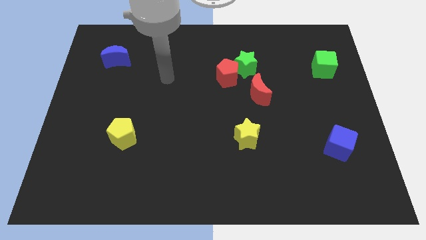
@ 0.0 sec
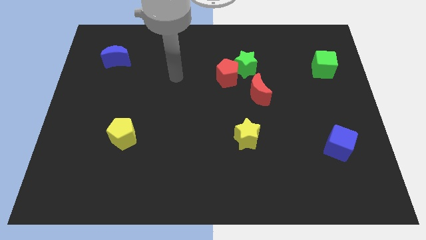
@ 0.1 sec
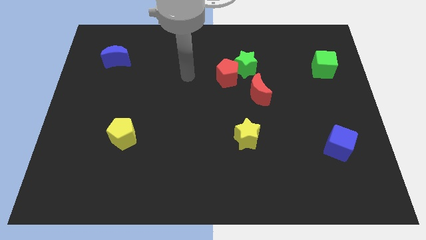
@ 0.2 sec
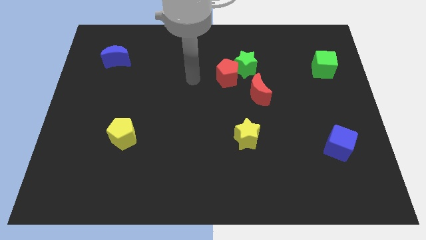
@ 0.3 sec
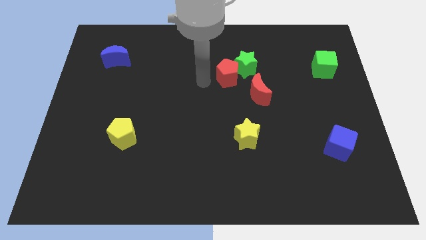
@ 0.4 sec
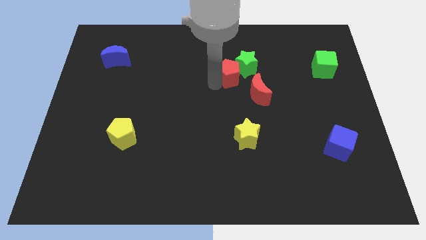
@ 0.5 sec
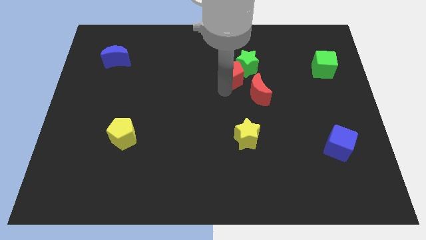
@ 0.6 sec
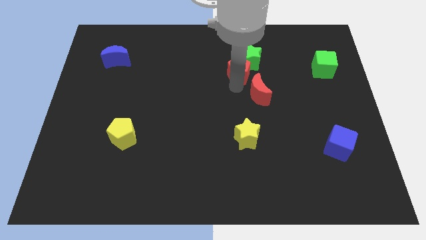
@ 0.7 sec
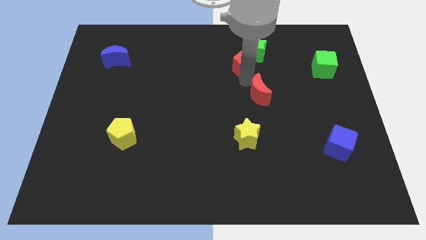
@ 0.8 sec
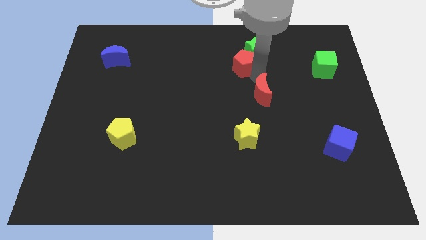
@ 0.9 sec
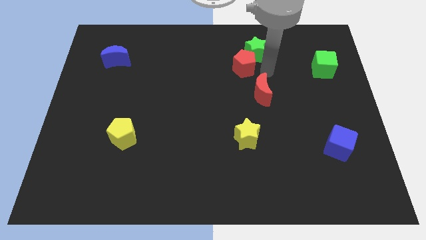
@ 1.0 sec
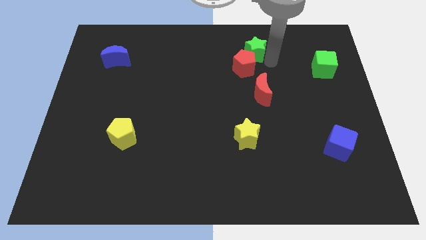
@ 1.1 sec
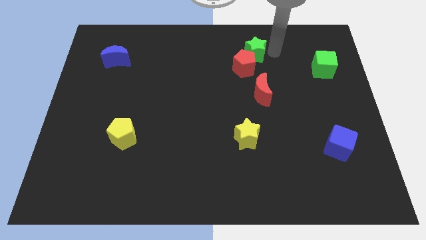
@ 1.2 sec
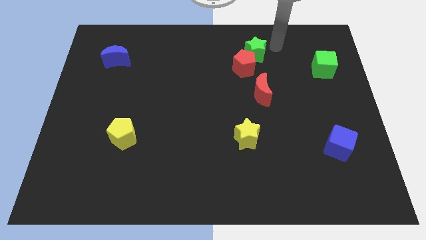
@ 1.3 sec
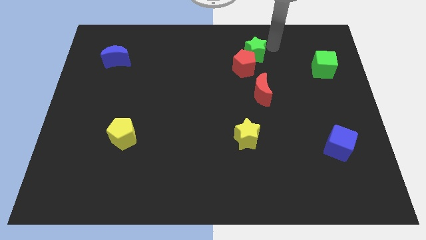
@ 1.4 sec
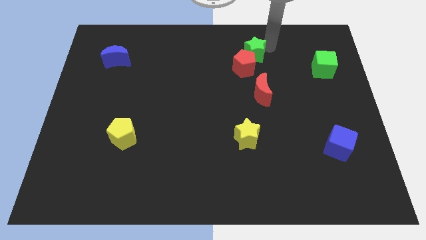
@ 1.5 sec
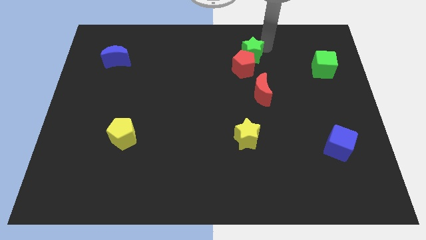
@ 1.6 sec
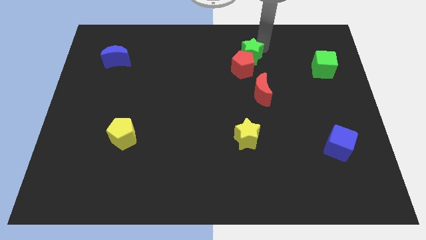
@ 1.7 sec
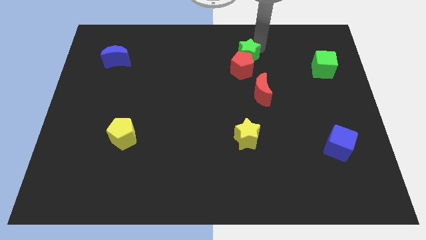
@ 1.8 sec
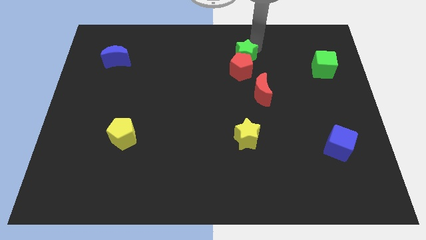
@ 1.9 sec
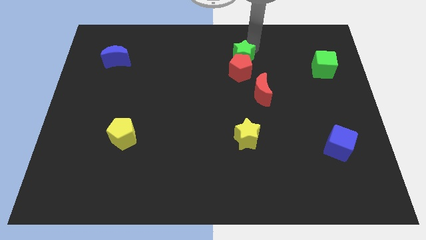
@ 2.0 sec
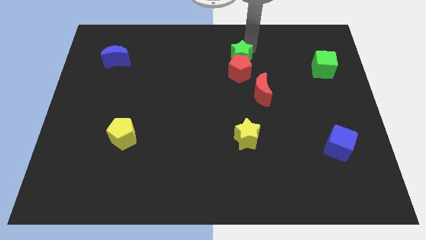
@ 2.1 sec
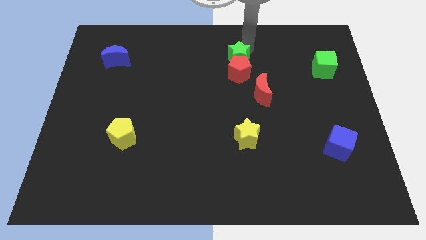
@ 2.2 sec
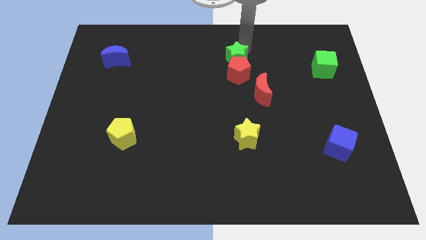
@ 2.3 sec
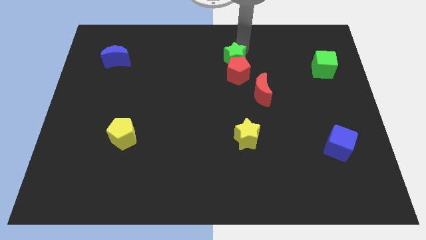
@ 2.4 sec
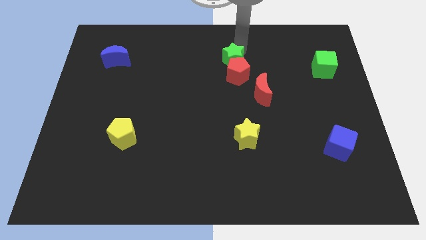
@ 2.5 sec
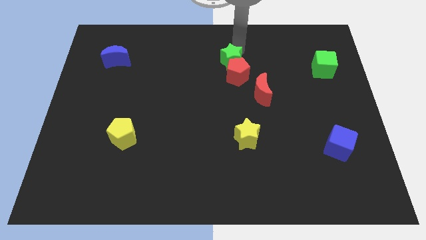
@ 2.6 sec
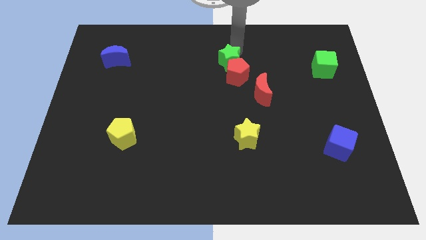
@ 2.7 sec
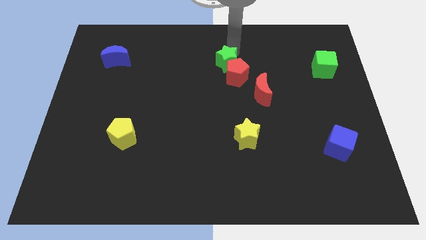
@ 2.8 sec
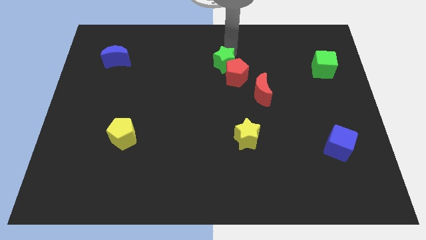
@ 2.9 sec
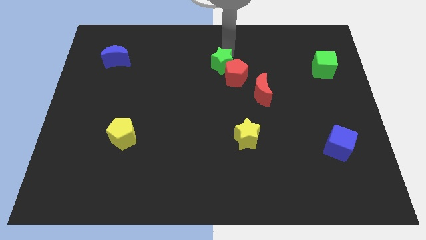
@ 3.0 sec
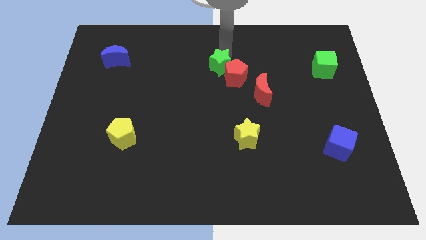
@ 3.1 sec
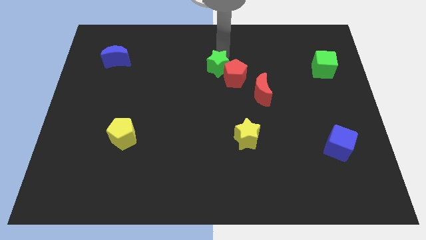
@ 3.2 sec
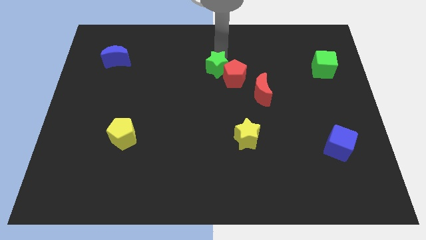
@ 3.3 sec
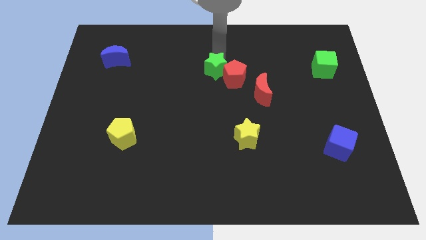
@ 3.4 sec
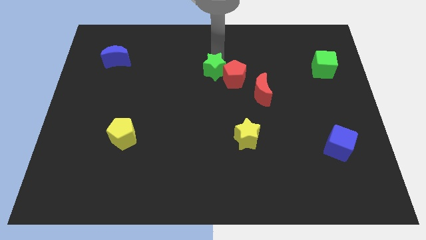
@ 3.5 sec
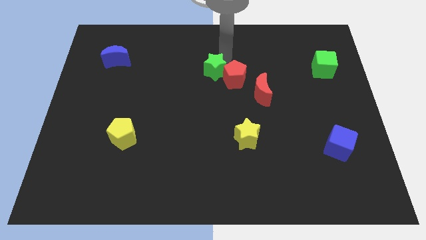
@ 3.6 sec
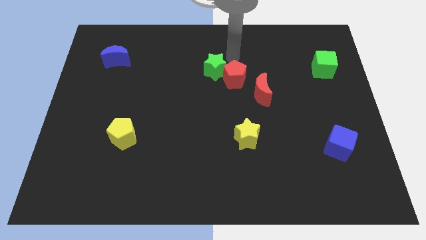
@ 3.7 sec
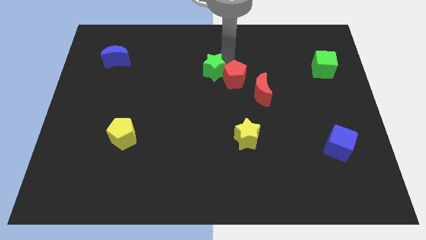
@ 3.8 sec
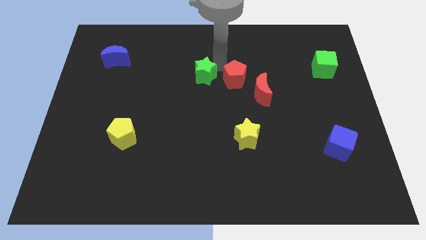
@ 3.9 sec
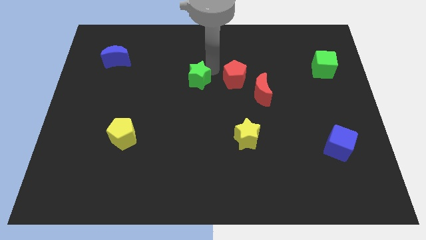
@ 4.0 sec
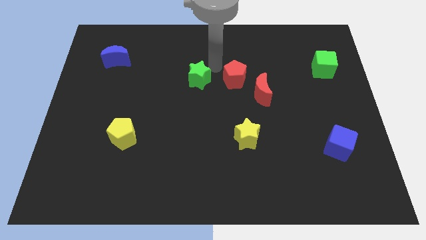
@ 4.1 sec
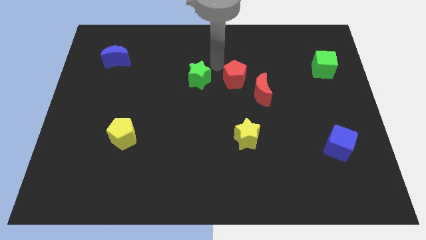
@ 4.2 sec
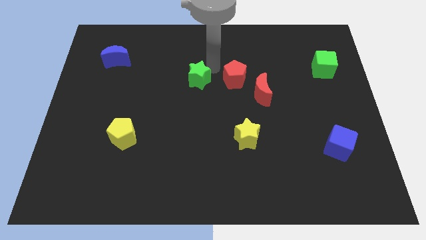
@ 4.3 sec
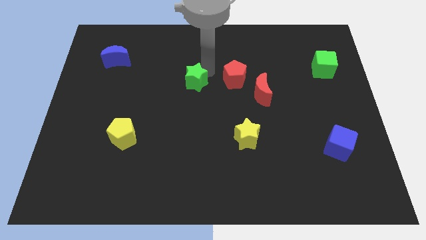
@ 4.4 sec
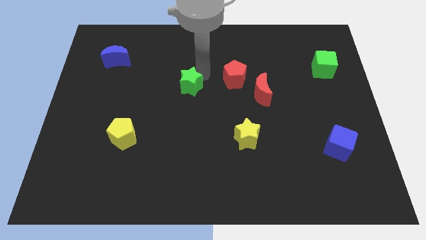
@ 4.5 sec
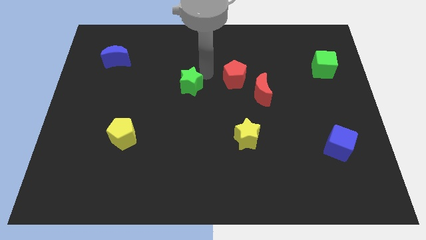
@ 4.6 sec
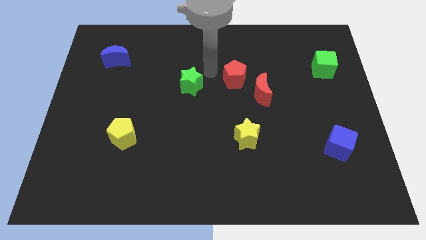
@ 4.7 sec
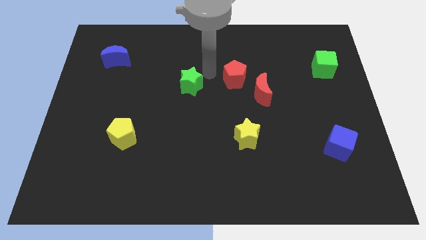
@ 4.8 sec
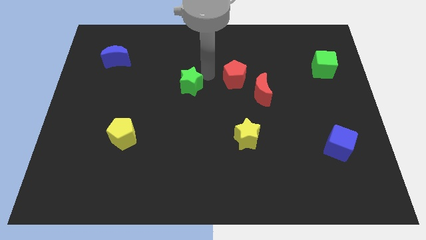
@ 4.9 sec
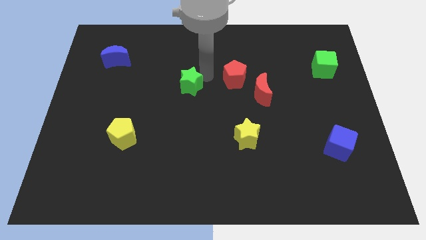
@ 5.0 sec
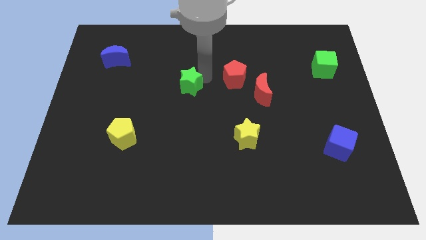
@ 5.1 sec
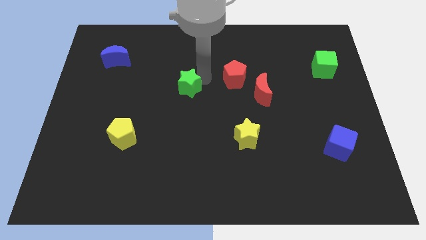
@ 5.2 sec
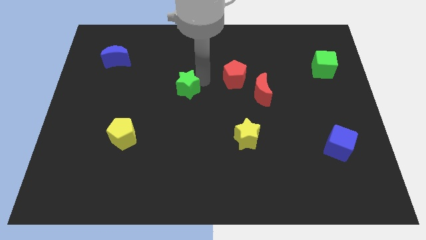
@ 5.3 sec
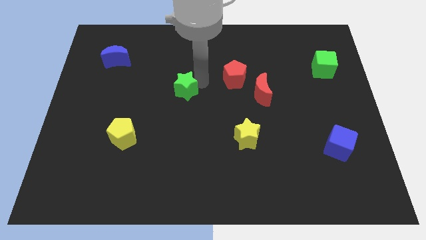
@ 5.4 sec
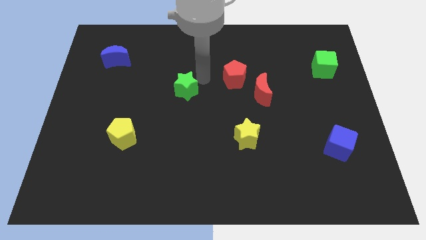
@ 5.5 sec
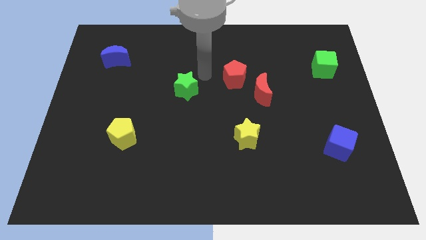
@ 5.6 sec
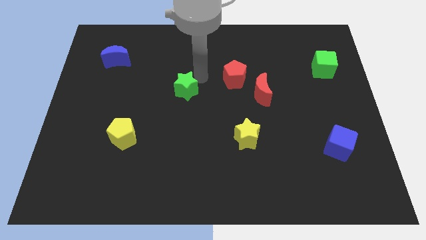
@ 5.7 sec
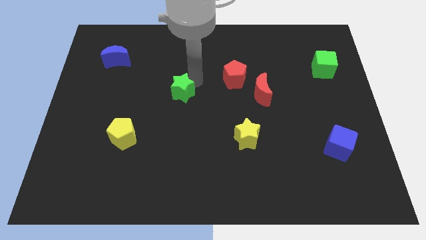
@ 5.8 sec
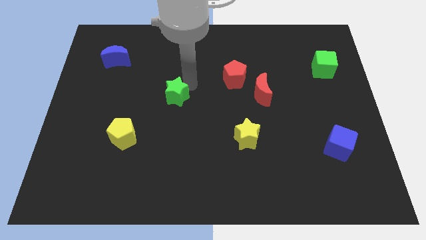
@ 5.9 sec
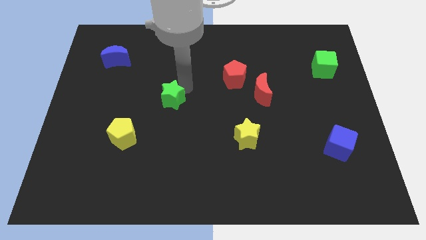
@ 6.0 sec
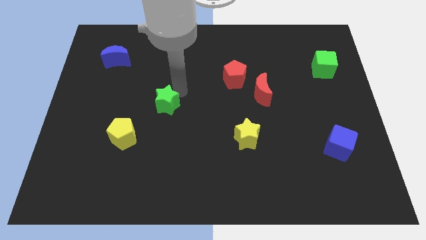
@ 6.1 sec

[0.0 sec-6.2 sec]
put the green star to the top right side of the yellow pentagon

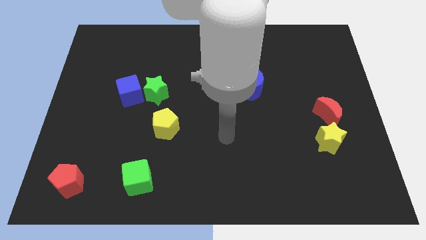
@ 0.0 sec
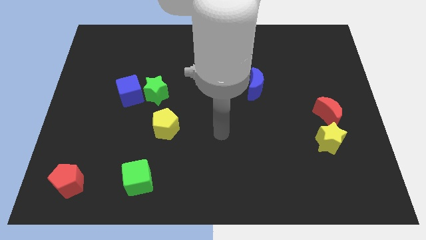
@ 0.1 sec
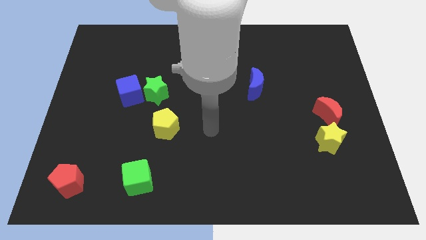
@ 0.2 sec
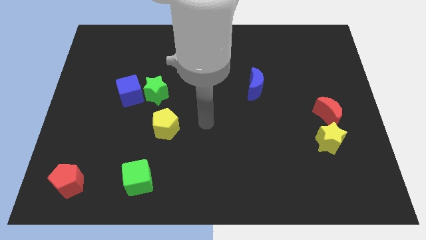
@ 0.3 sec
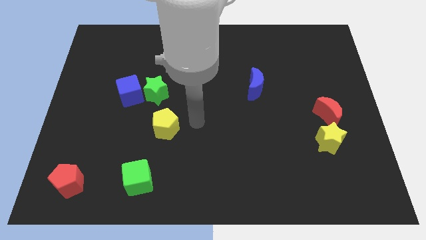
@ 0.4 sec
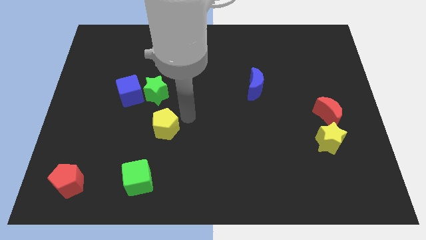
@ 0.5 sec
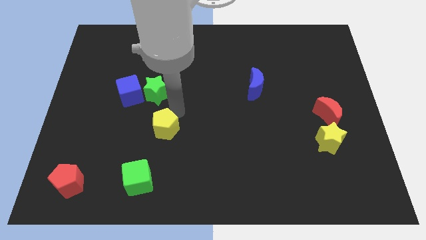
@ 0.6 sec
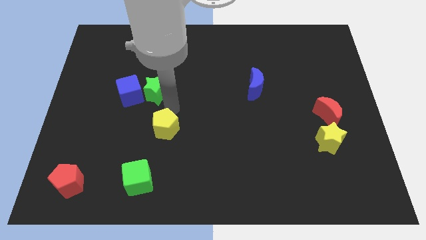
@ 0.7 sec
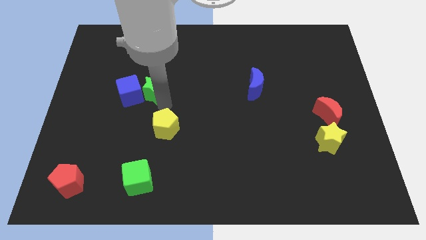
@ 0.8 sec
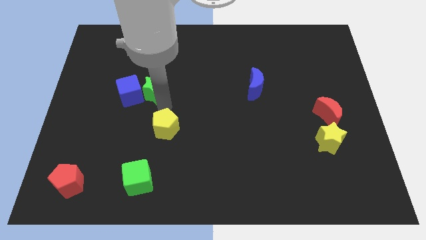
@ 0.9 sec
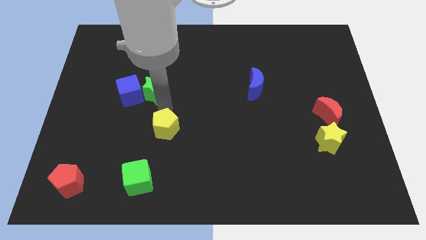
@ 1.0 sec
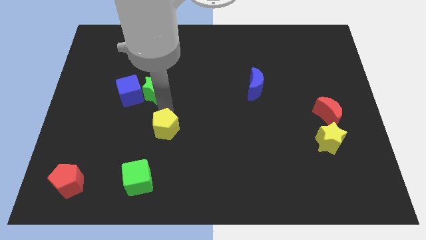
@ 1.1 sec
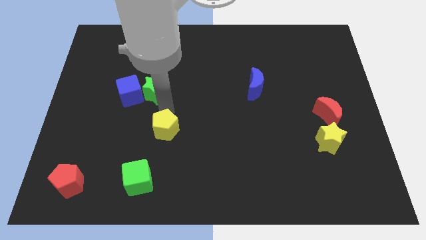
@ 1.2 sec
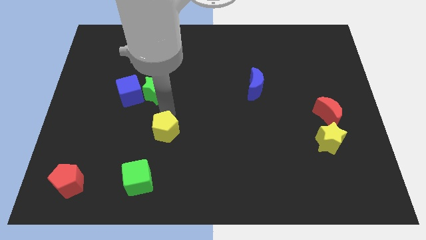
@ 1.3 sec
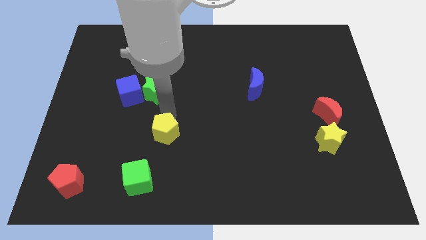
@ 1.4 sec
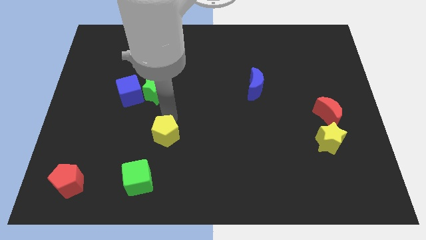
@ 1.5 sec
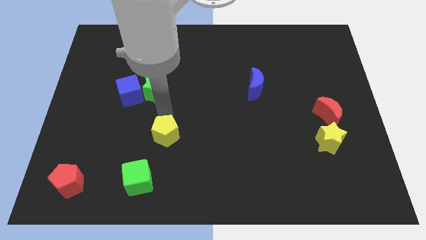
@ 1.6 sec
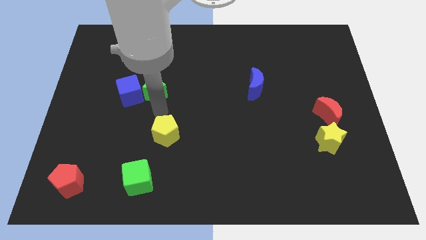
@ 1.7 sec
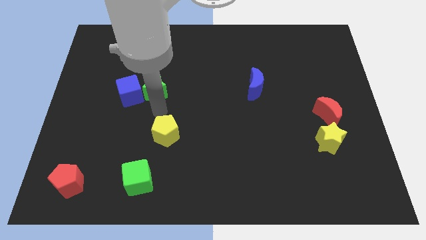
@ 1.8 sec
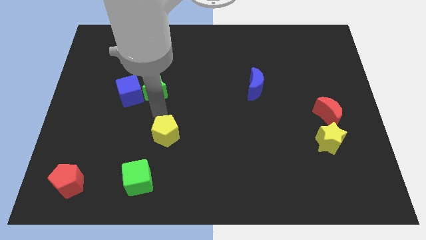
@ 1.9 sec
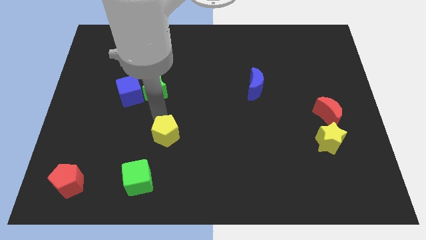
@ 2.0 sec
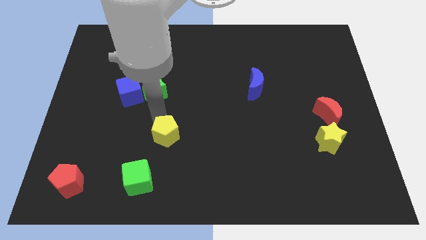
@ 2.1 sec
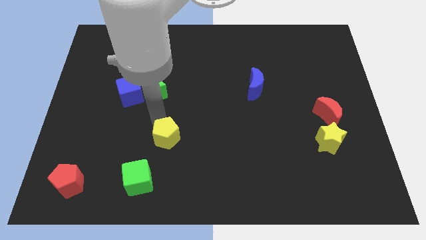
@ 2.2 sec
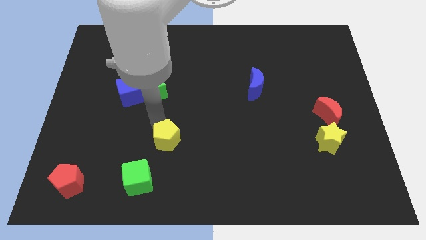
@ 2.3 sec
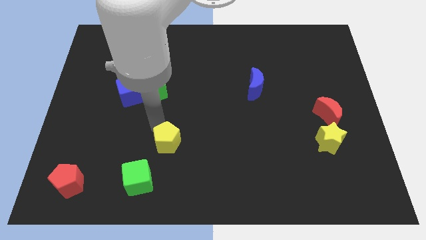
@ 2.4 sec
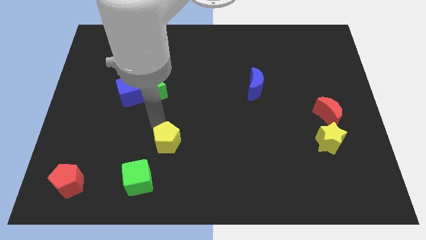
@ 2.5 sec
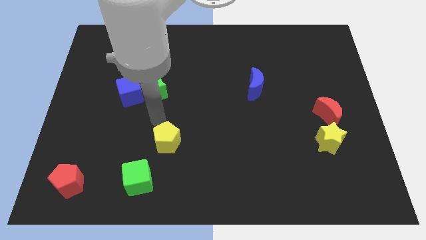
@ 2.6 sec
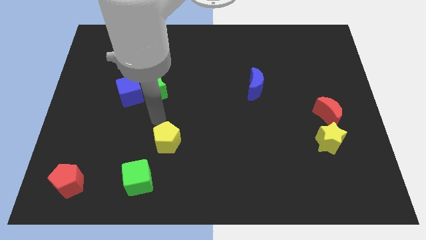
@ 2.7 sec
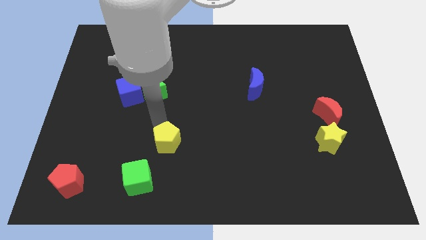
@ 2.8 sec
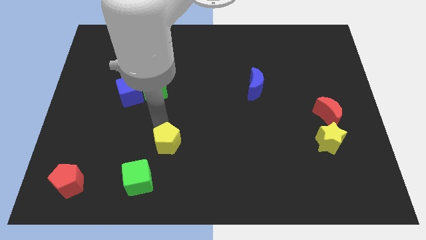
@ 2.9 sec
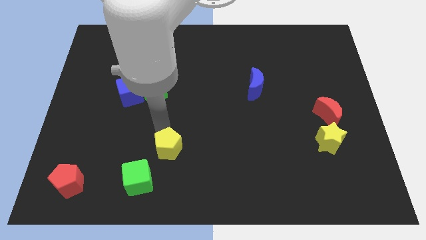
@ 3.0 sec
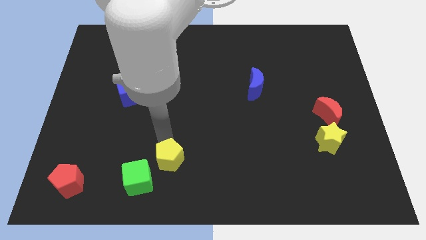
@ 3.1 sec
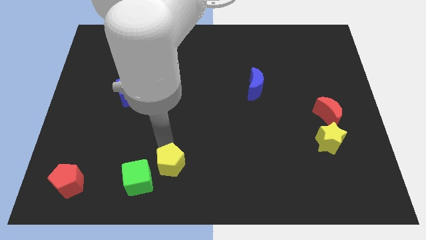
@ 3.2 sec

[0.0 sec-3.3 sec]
move the yellow pentagon just right of the green cube
